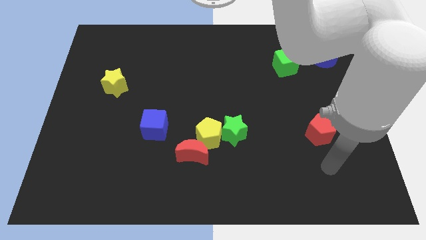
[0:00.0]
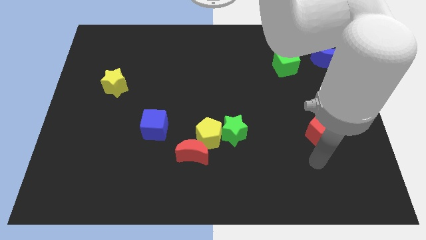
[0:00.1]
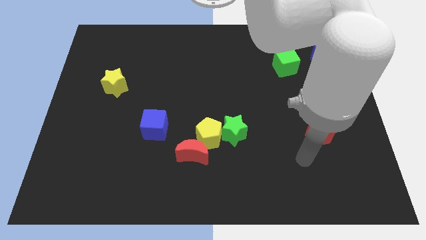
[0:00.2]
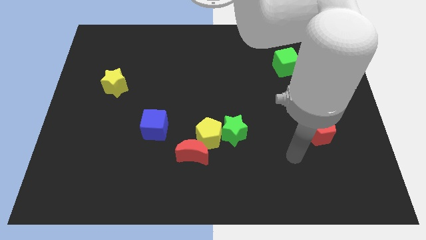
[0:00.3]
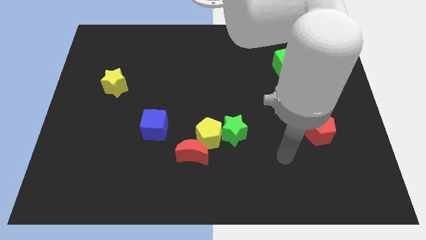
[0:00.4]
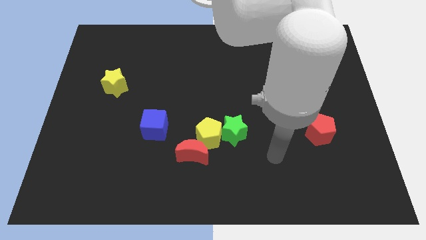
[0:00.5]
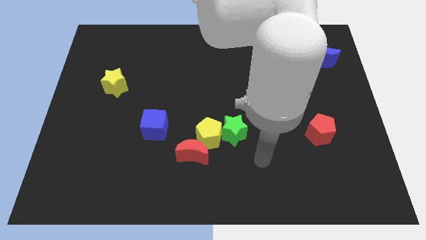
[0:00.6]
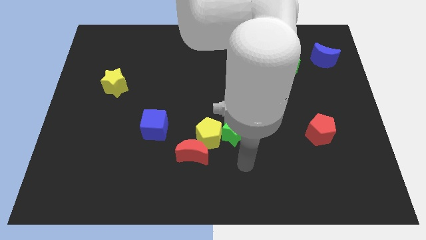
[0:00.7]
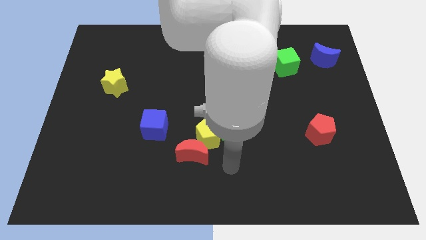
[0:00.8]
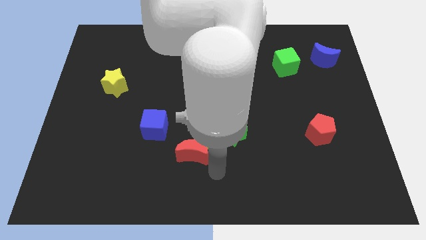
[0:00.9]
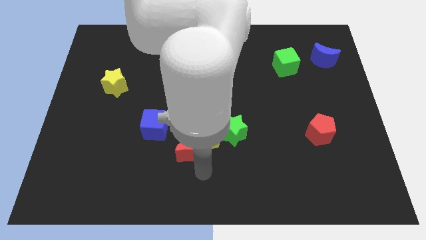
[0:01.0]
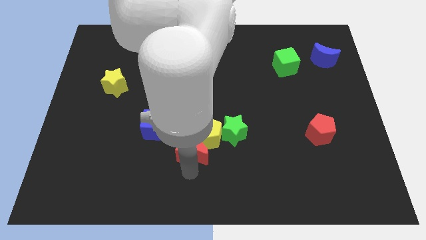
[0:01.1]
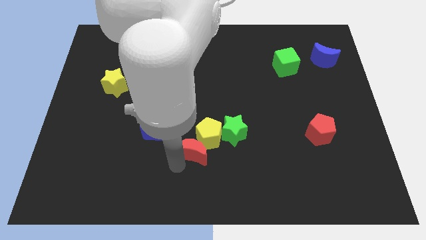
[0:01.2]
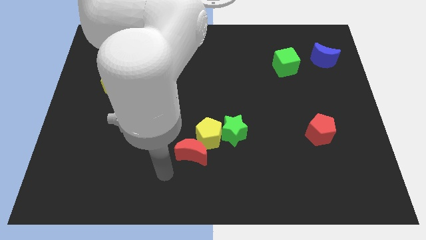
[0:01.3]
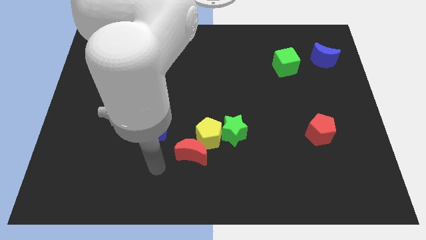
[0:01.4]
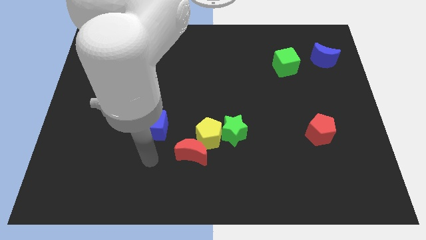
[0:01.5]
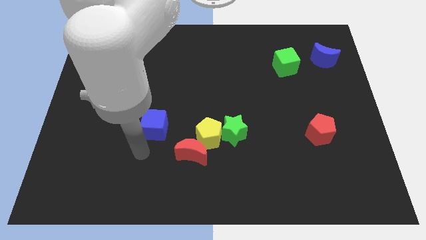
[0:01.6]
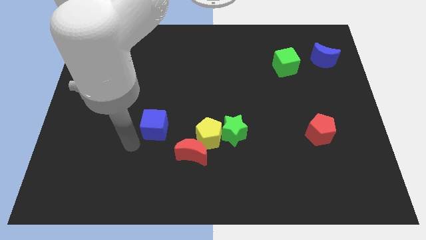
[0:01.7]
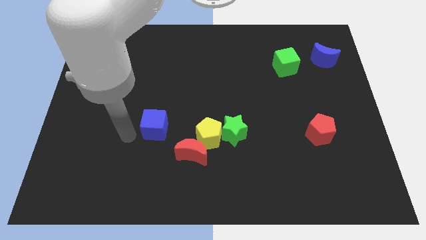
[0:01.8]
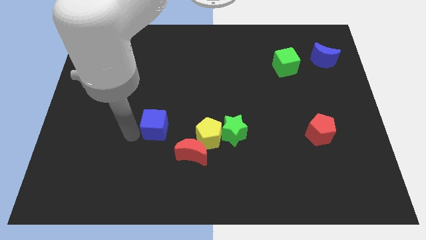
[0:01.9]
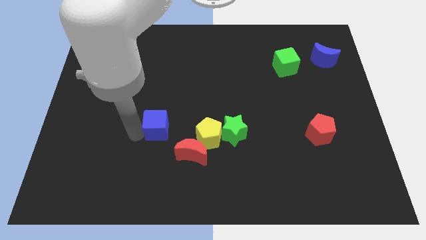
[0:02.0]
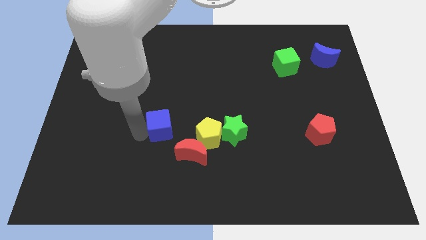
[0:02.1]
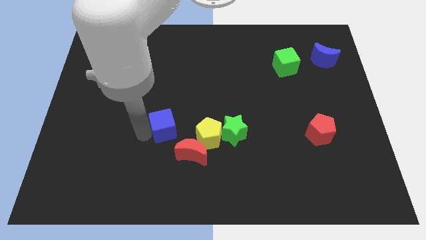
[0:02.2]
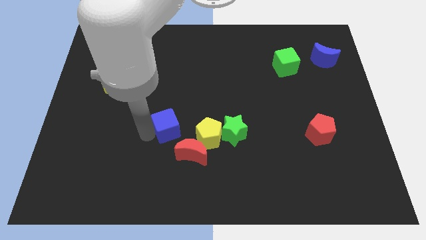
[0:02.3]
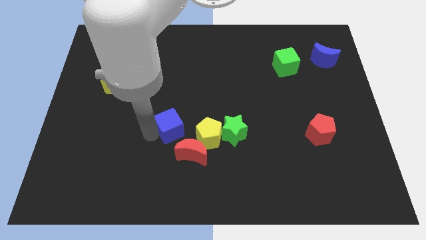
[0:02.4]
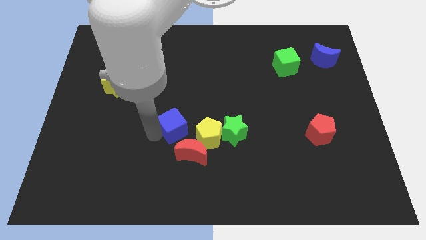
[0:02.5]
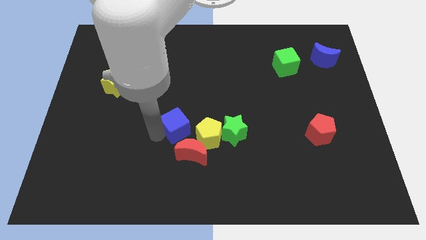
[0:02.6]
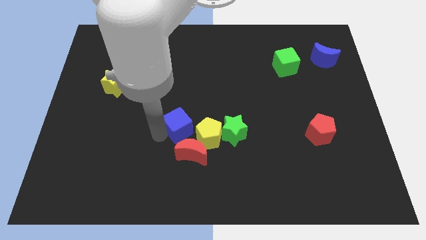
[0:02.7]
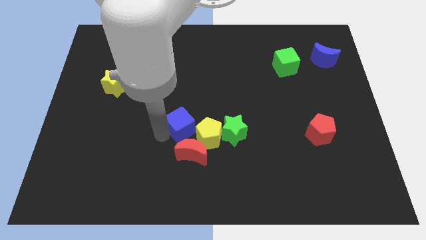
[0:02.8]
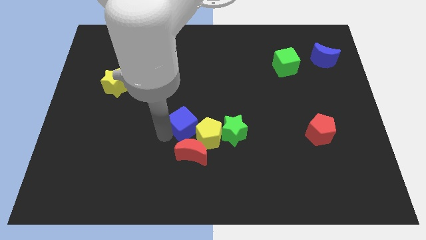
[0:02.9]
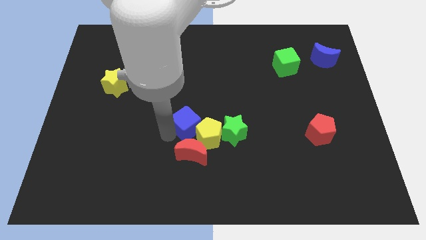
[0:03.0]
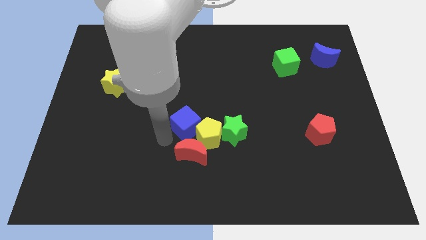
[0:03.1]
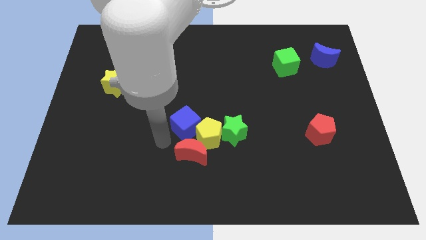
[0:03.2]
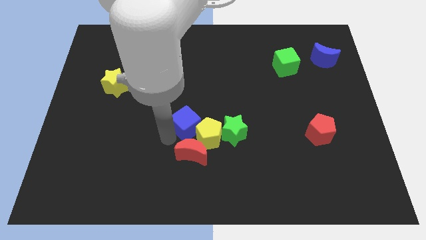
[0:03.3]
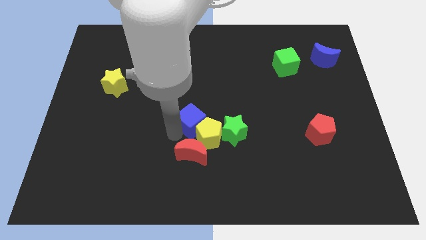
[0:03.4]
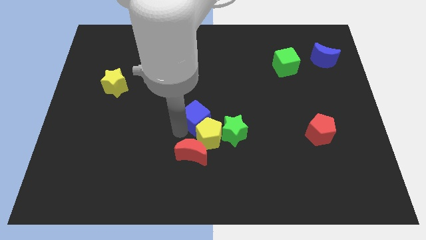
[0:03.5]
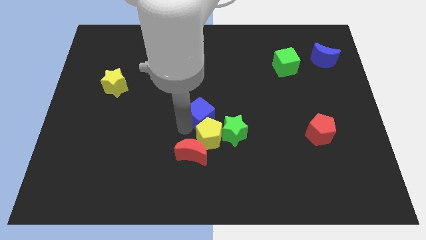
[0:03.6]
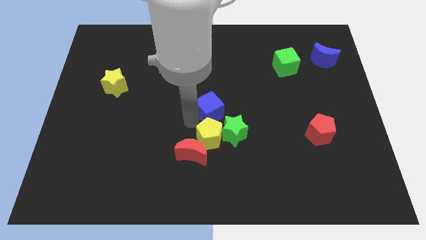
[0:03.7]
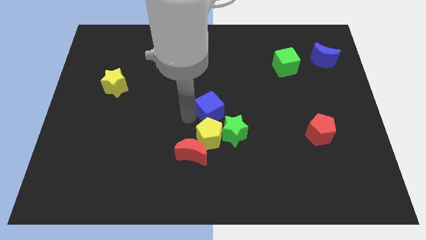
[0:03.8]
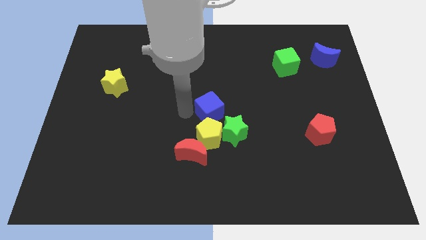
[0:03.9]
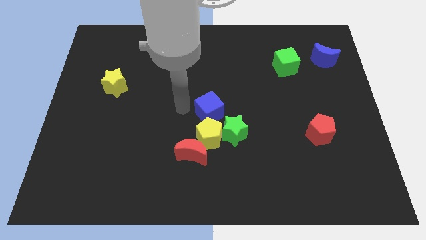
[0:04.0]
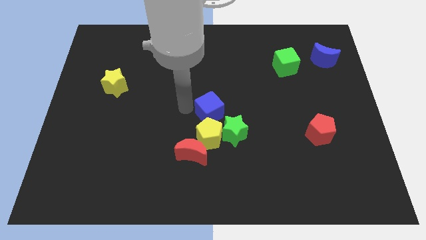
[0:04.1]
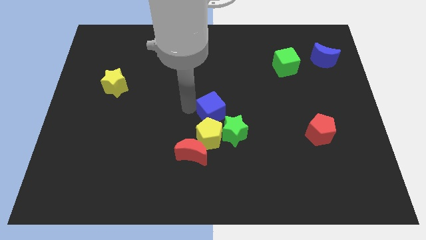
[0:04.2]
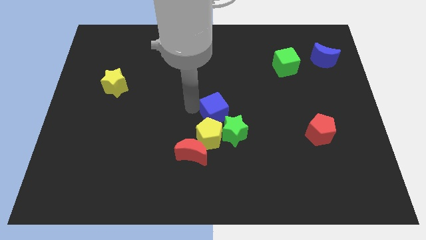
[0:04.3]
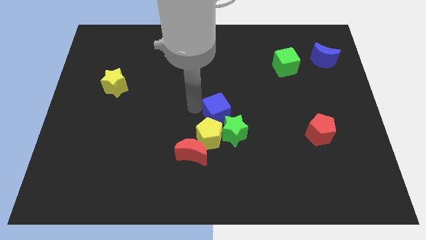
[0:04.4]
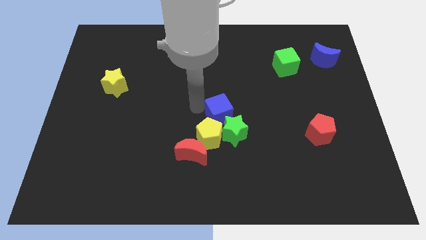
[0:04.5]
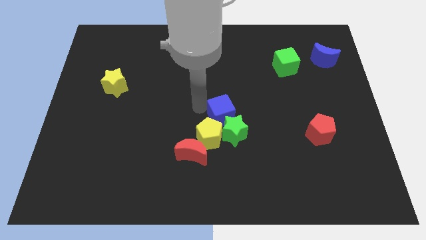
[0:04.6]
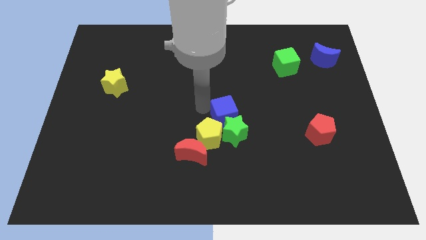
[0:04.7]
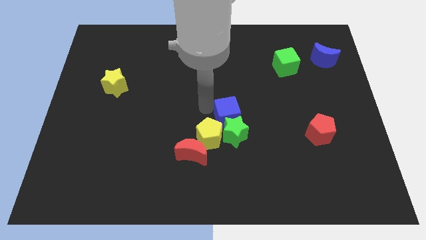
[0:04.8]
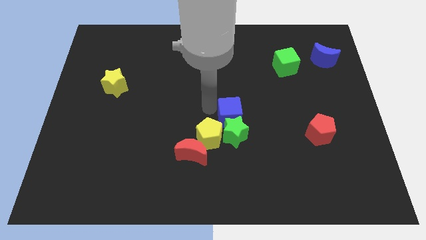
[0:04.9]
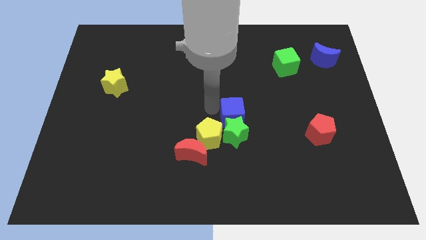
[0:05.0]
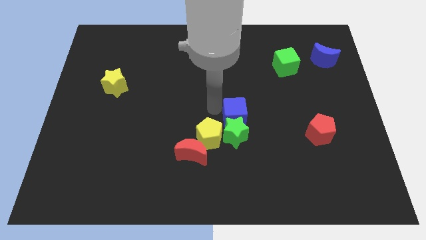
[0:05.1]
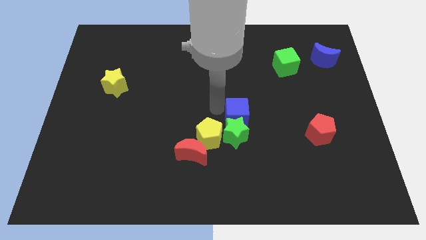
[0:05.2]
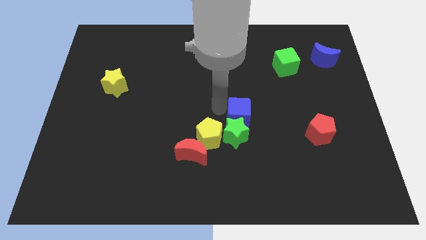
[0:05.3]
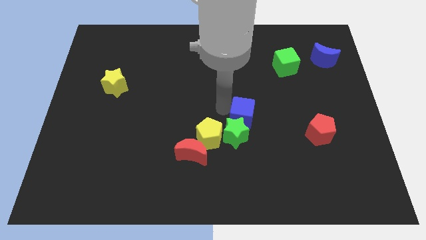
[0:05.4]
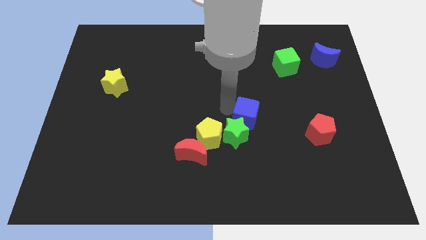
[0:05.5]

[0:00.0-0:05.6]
move the blue cube to the right

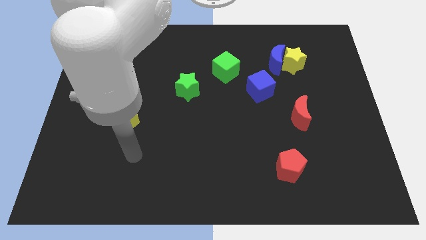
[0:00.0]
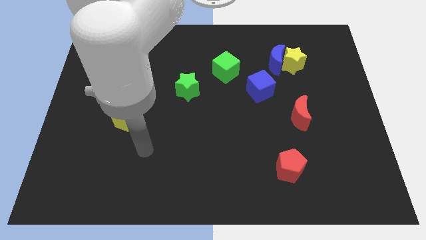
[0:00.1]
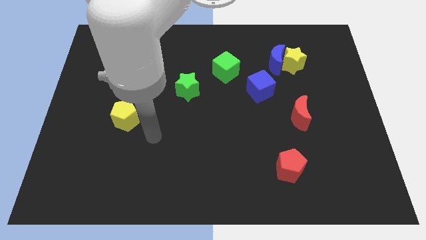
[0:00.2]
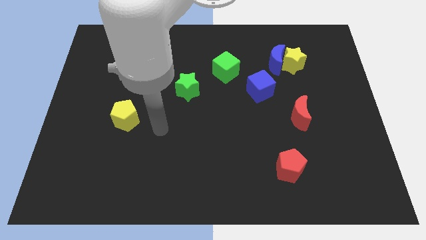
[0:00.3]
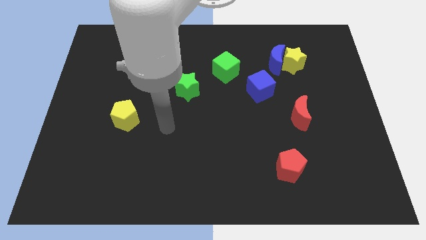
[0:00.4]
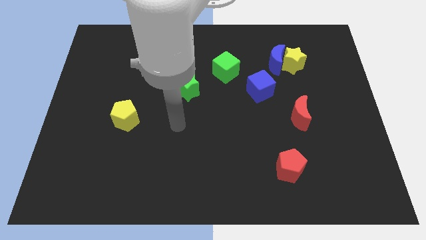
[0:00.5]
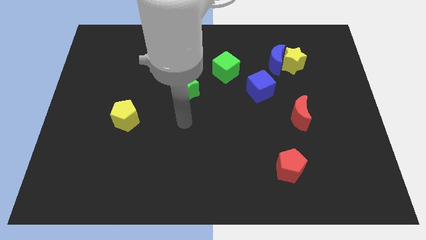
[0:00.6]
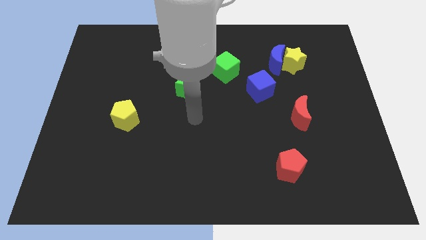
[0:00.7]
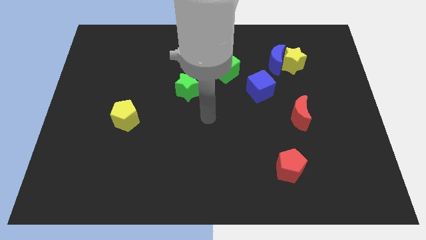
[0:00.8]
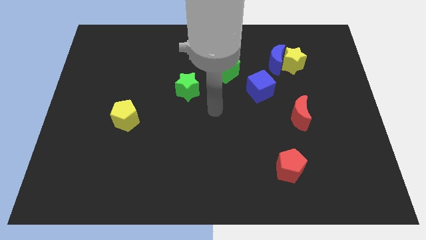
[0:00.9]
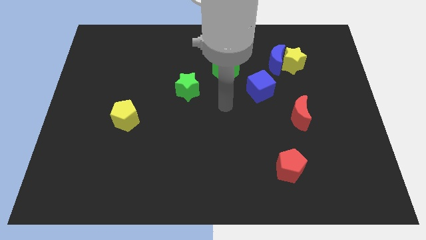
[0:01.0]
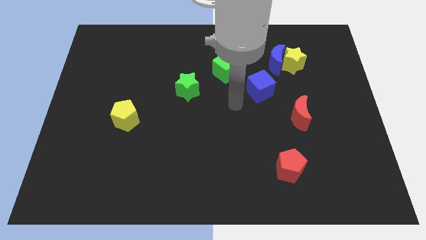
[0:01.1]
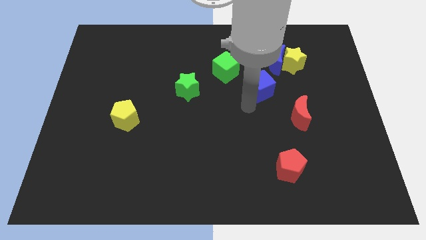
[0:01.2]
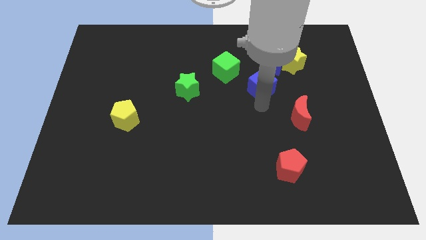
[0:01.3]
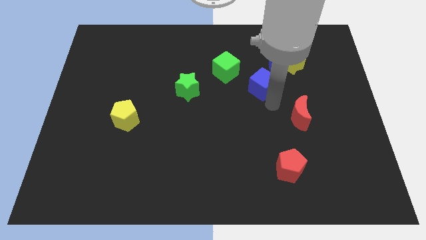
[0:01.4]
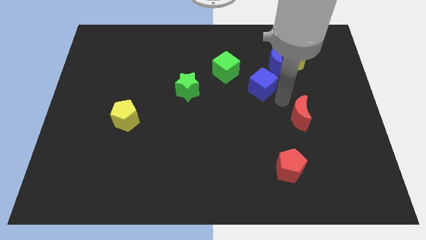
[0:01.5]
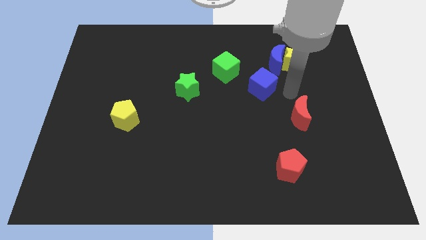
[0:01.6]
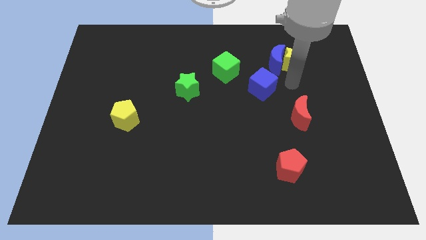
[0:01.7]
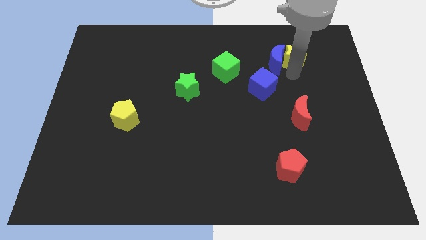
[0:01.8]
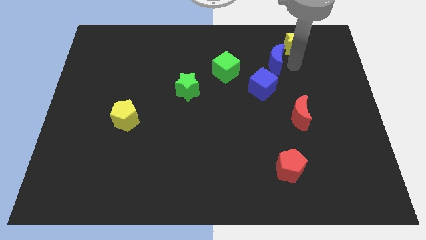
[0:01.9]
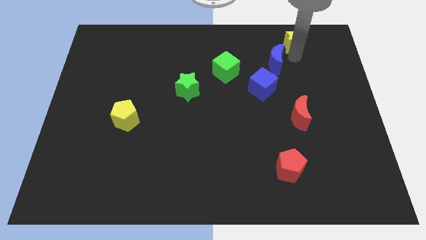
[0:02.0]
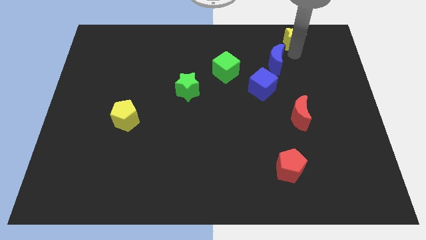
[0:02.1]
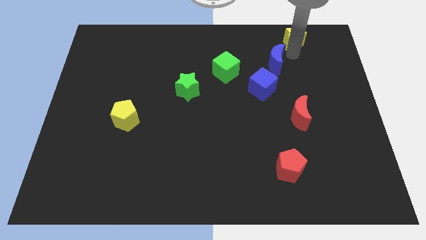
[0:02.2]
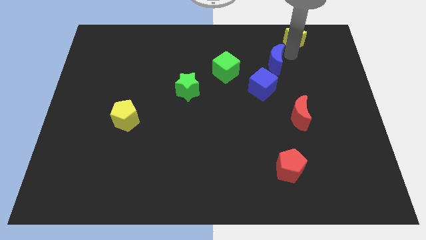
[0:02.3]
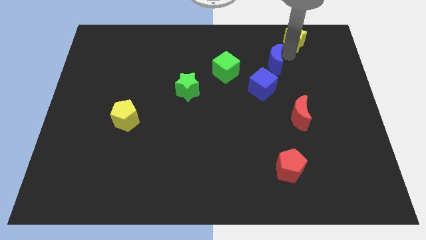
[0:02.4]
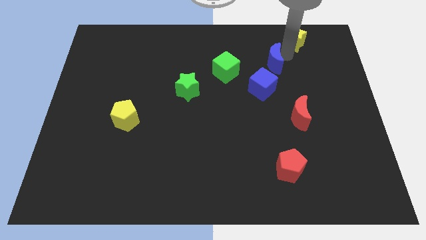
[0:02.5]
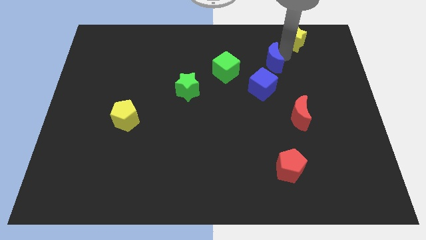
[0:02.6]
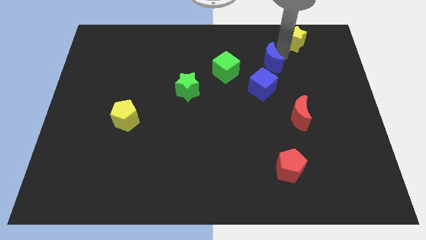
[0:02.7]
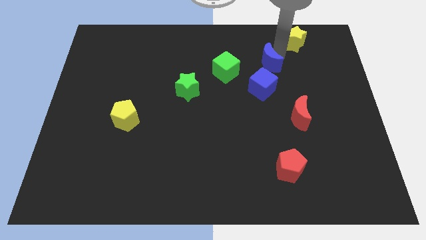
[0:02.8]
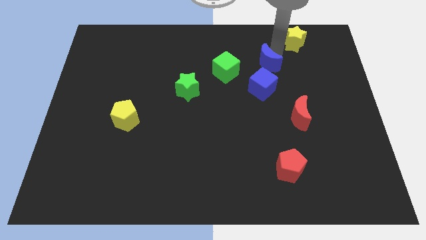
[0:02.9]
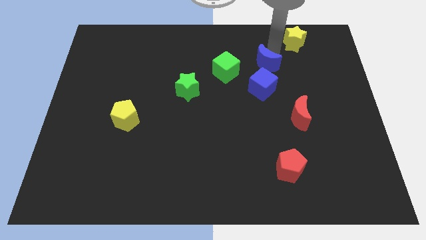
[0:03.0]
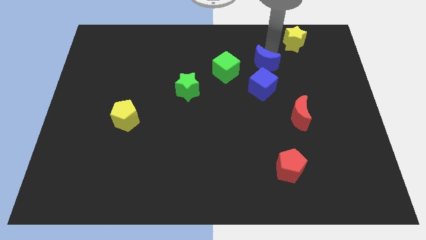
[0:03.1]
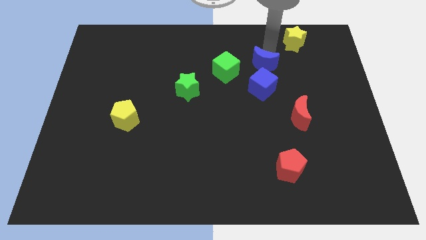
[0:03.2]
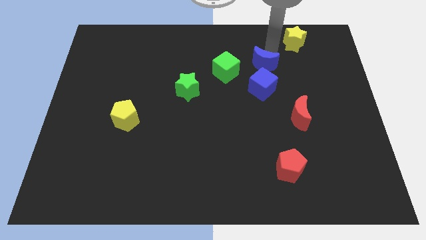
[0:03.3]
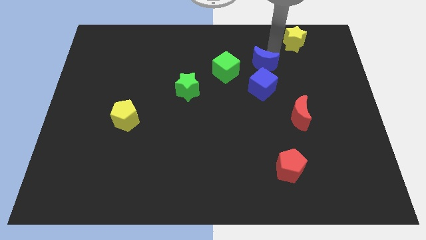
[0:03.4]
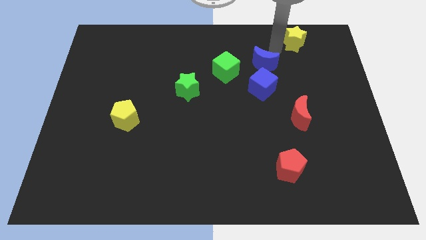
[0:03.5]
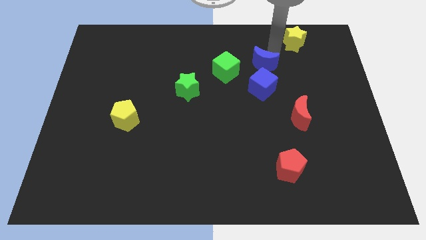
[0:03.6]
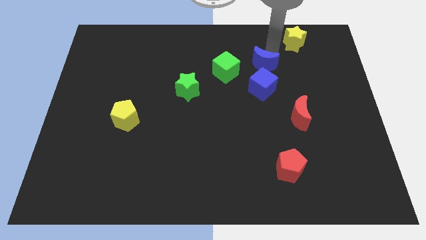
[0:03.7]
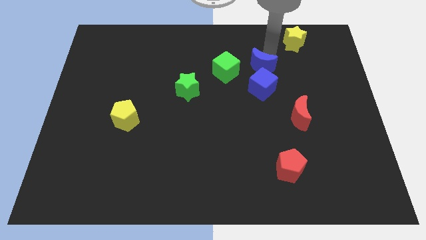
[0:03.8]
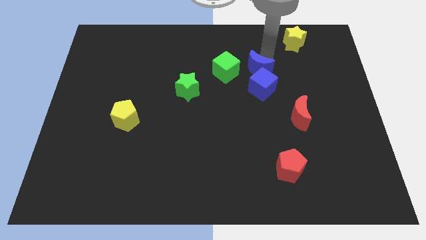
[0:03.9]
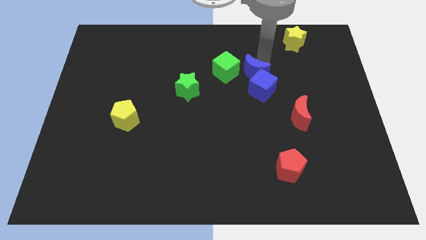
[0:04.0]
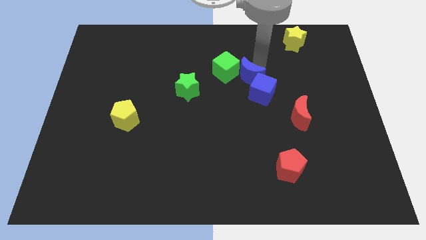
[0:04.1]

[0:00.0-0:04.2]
move the blue moon a little bit diagonally downwards and left
